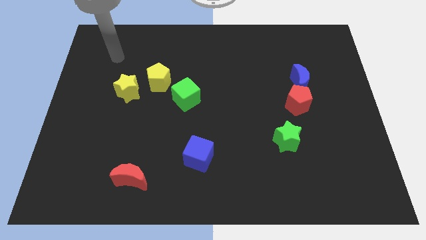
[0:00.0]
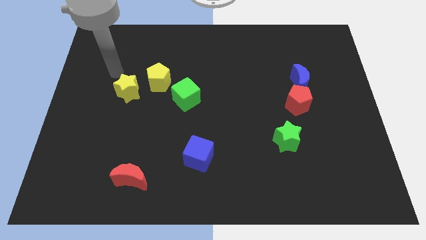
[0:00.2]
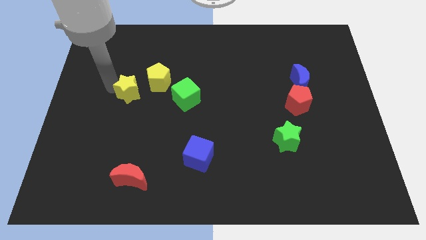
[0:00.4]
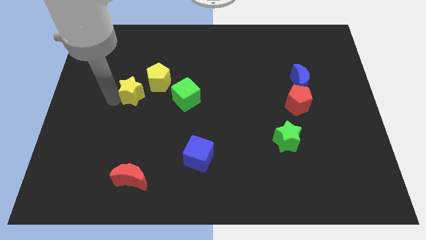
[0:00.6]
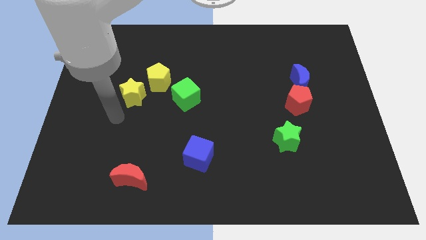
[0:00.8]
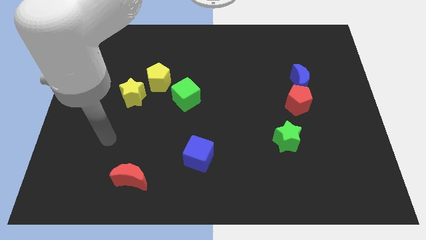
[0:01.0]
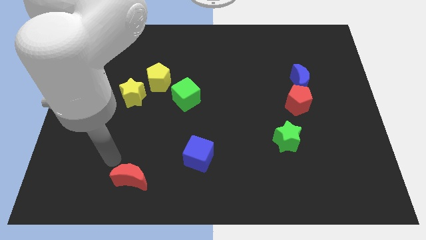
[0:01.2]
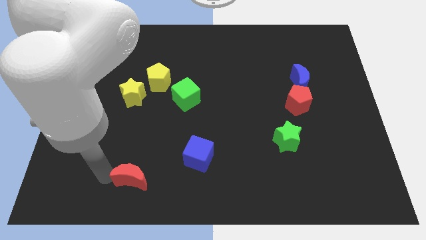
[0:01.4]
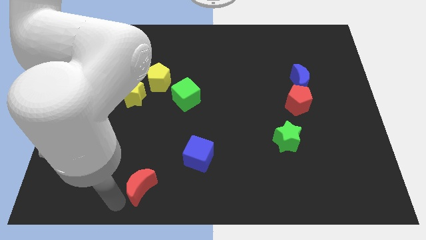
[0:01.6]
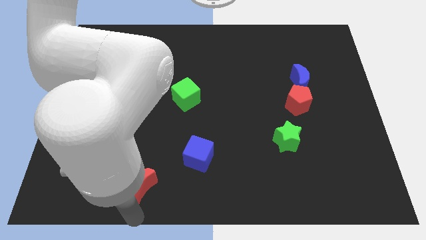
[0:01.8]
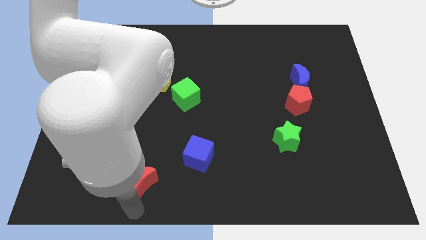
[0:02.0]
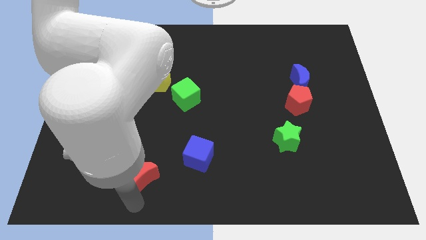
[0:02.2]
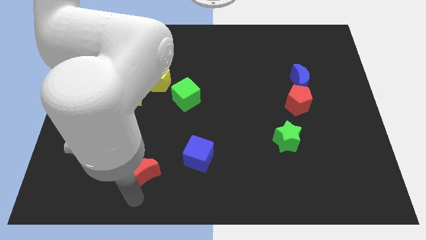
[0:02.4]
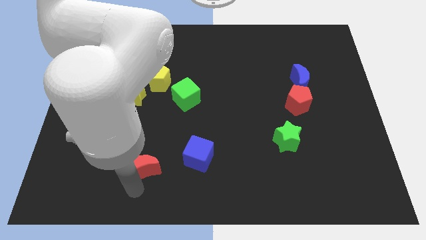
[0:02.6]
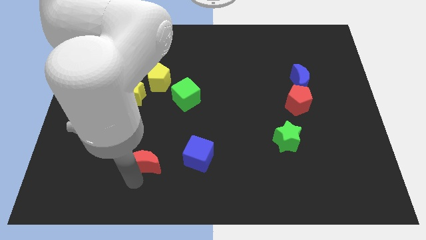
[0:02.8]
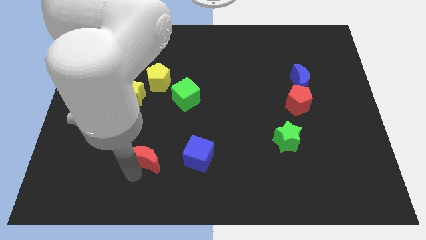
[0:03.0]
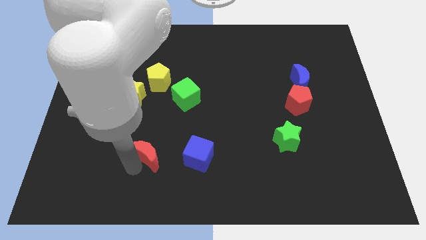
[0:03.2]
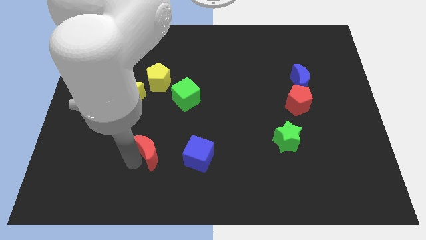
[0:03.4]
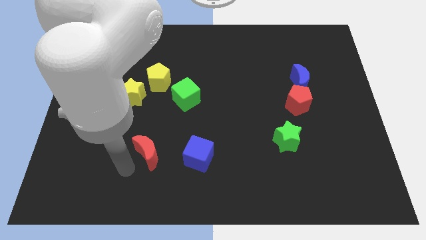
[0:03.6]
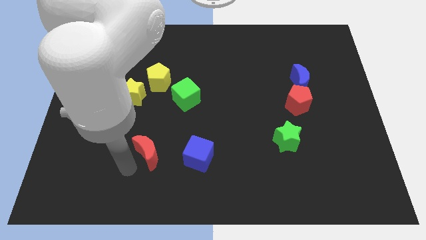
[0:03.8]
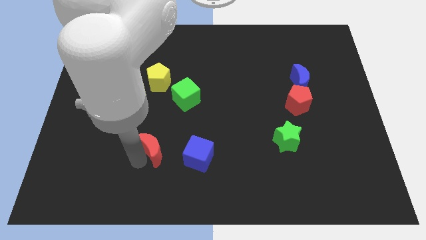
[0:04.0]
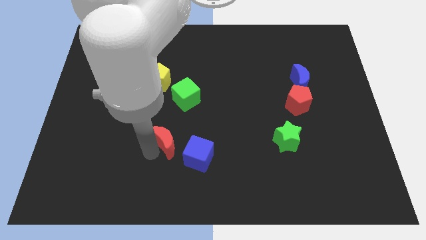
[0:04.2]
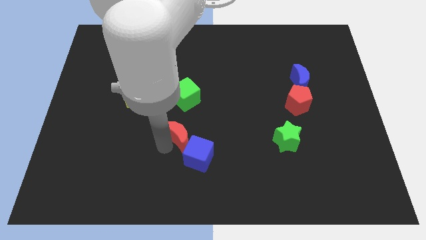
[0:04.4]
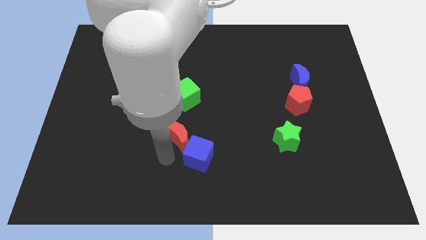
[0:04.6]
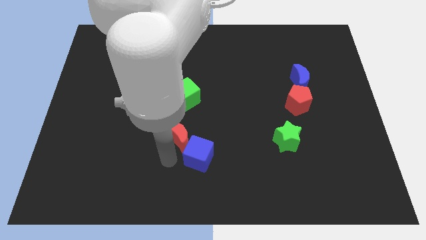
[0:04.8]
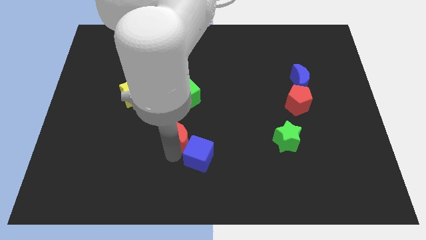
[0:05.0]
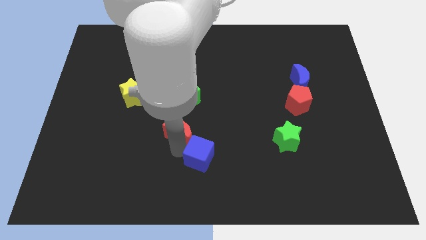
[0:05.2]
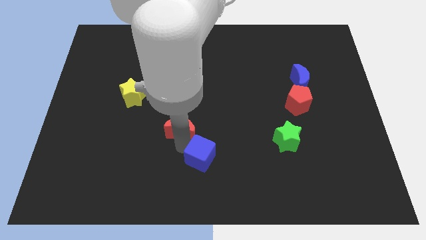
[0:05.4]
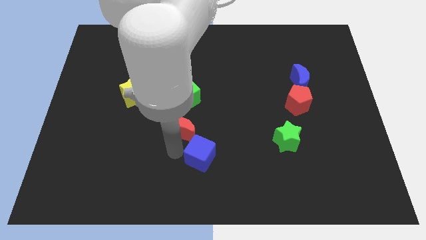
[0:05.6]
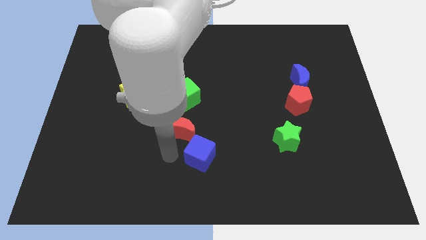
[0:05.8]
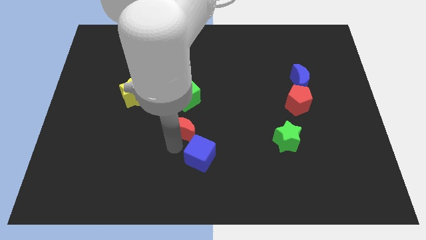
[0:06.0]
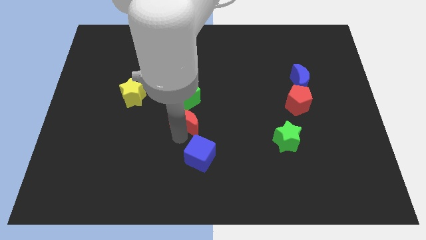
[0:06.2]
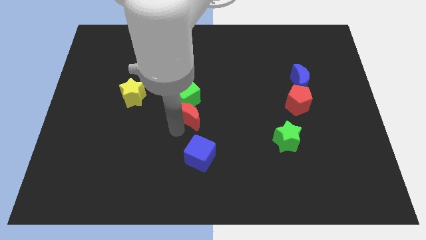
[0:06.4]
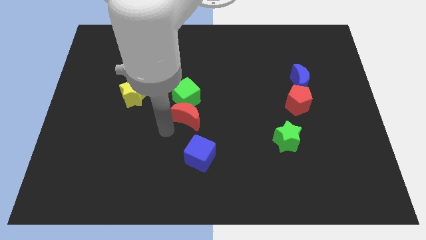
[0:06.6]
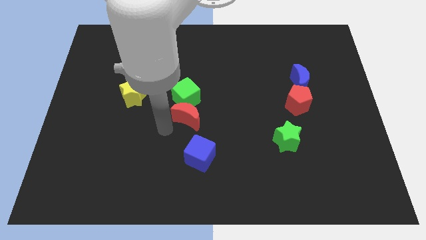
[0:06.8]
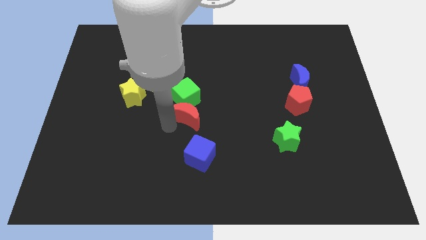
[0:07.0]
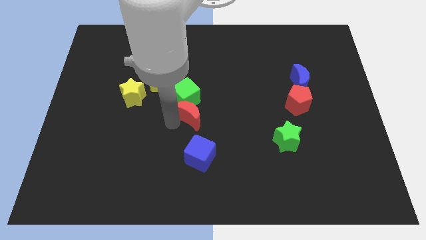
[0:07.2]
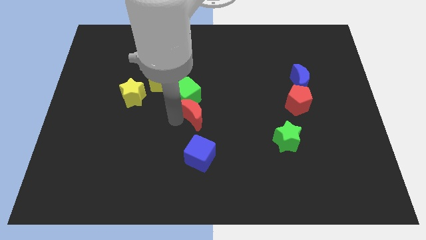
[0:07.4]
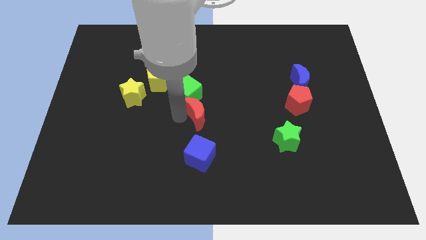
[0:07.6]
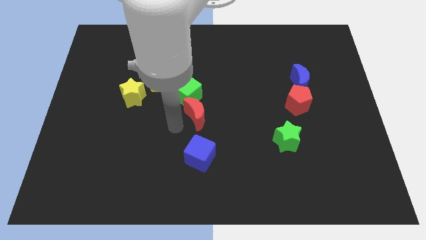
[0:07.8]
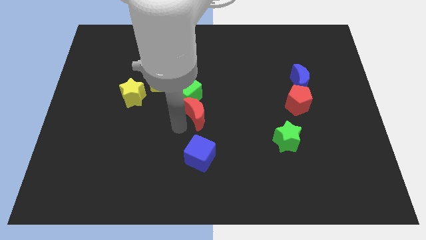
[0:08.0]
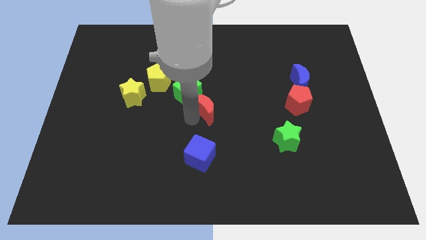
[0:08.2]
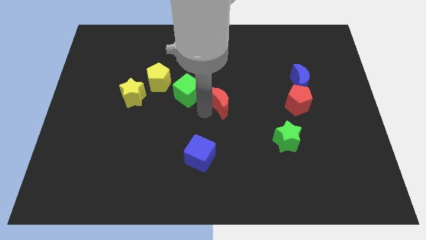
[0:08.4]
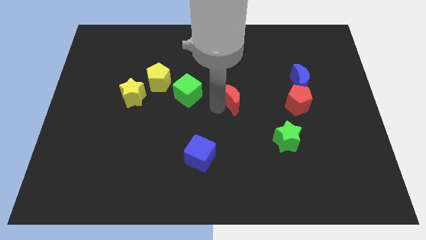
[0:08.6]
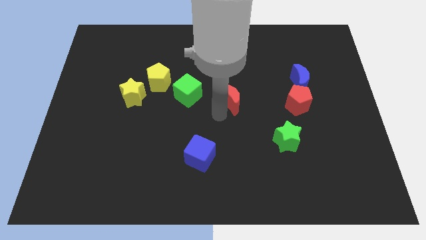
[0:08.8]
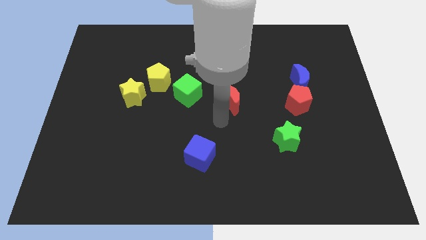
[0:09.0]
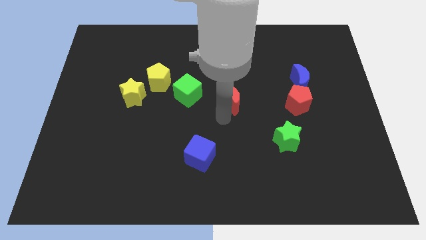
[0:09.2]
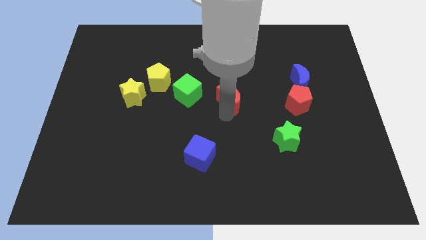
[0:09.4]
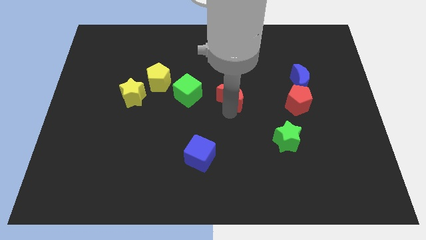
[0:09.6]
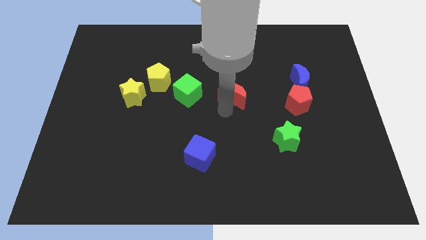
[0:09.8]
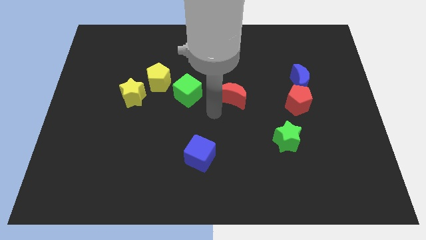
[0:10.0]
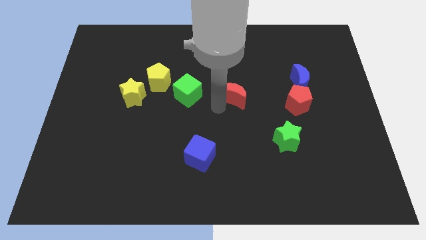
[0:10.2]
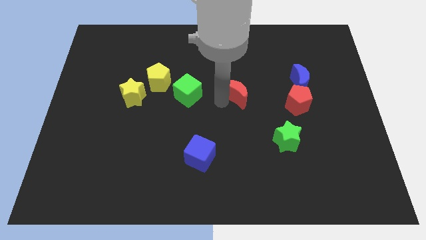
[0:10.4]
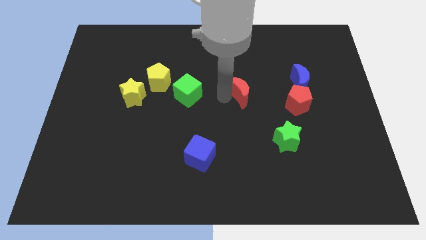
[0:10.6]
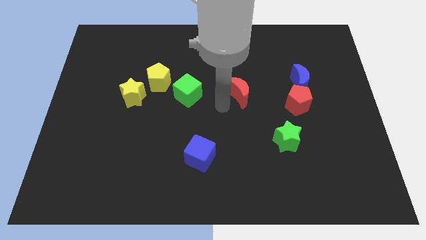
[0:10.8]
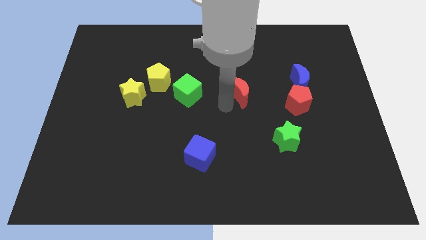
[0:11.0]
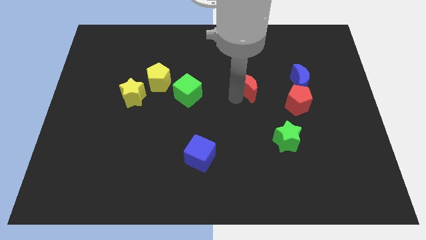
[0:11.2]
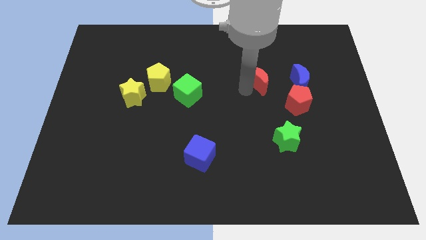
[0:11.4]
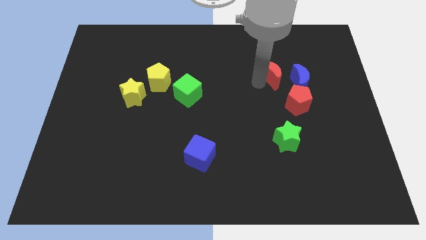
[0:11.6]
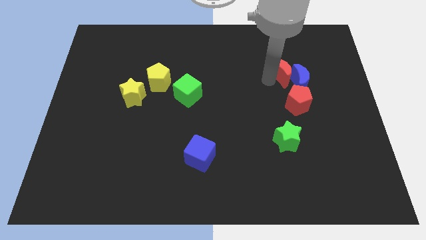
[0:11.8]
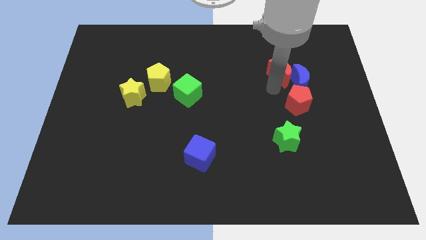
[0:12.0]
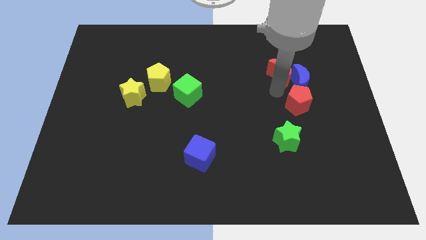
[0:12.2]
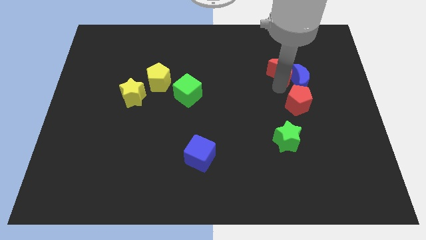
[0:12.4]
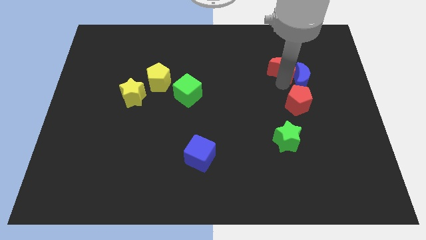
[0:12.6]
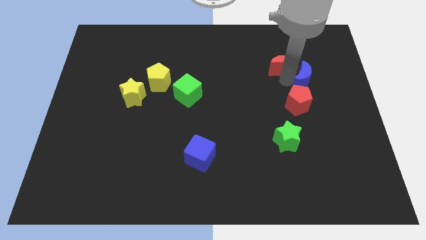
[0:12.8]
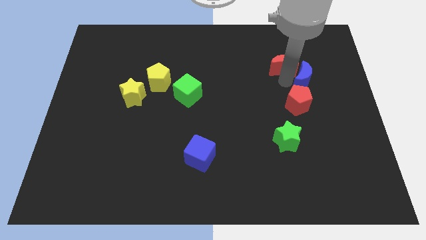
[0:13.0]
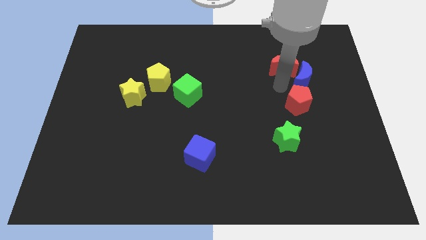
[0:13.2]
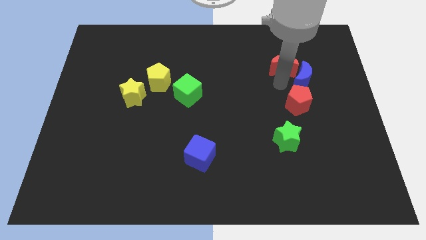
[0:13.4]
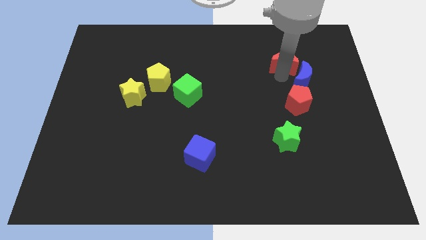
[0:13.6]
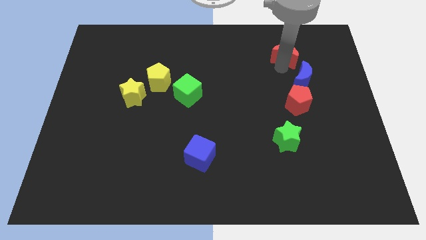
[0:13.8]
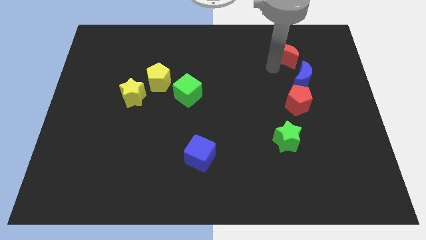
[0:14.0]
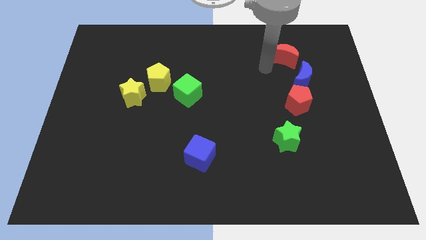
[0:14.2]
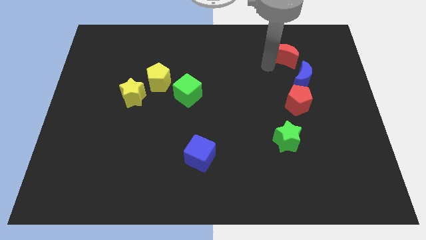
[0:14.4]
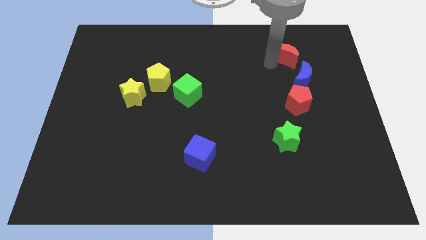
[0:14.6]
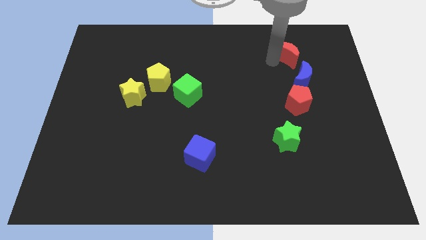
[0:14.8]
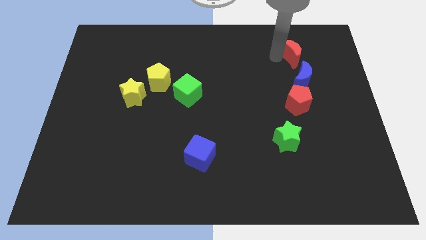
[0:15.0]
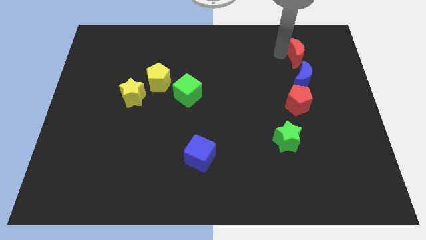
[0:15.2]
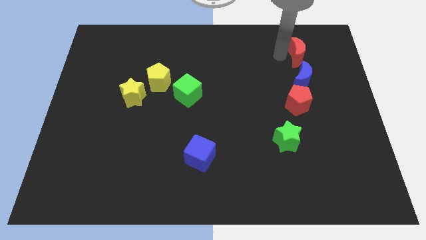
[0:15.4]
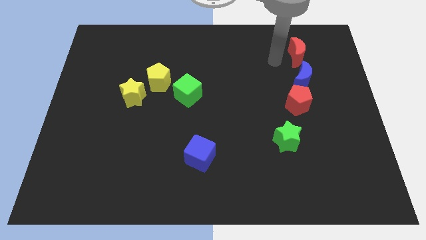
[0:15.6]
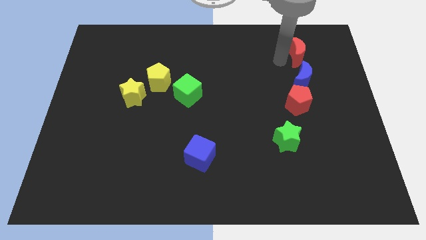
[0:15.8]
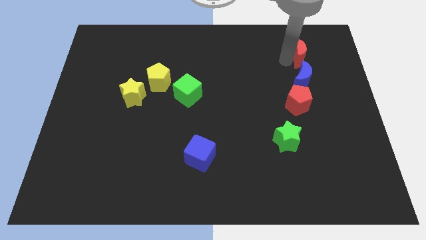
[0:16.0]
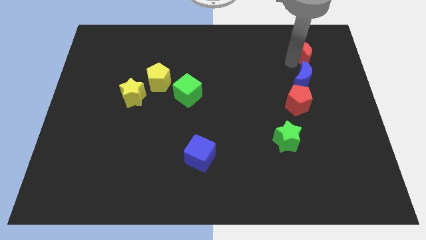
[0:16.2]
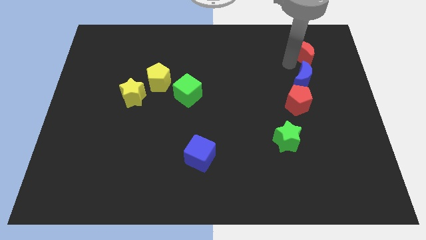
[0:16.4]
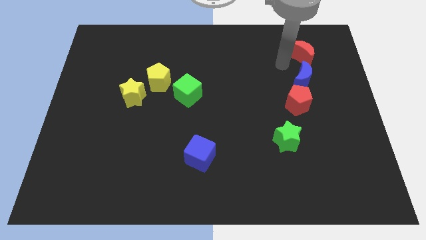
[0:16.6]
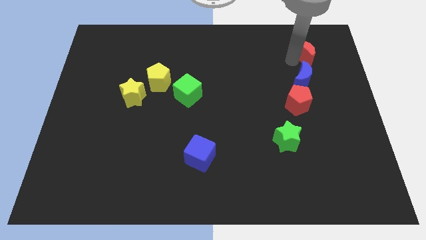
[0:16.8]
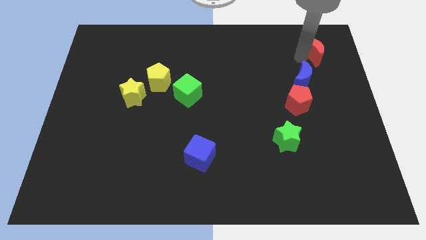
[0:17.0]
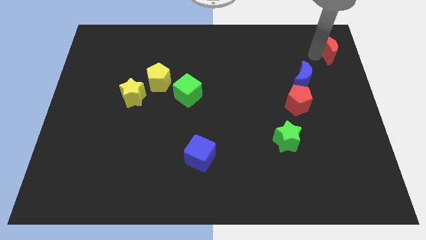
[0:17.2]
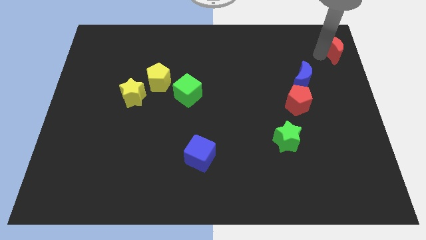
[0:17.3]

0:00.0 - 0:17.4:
move the red moon to the top right
